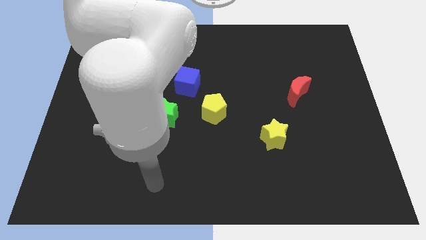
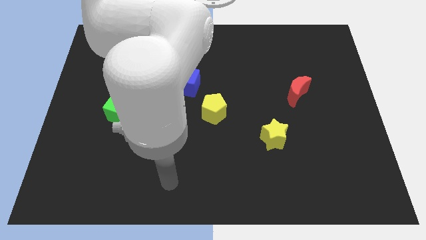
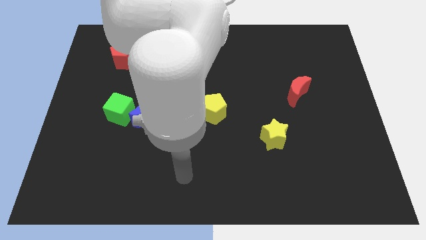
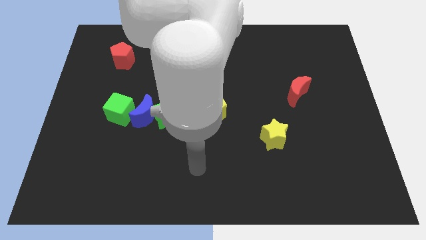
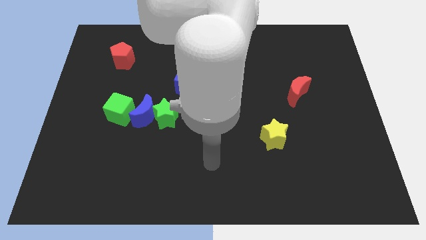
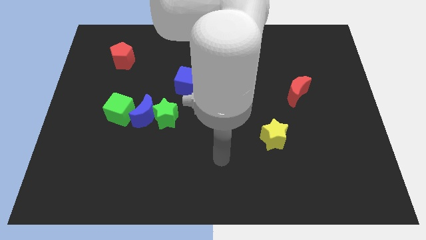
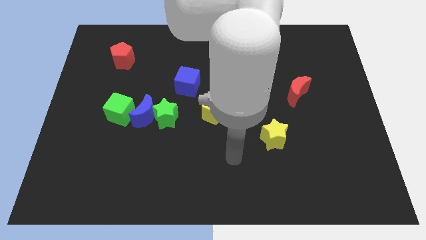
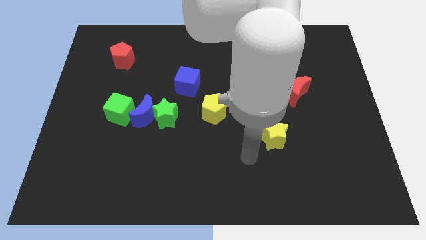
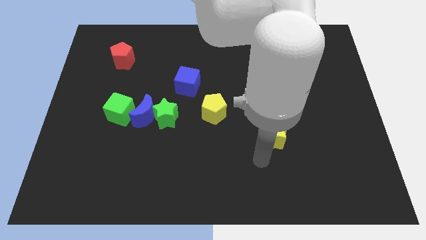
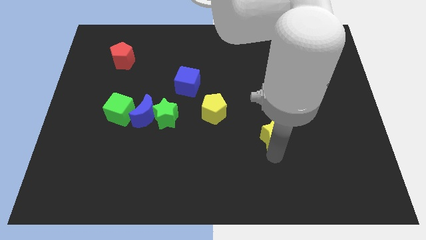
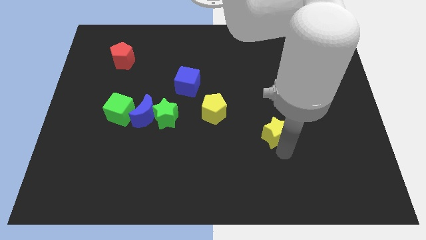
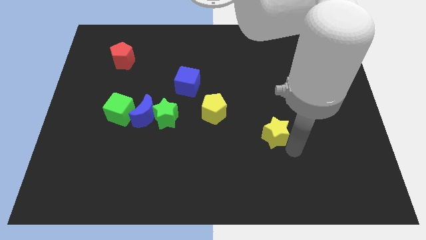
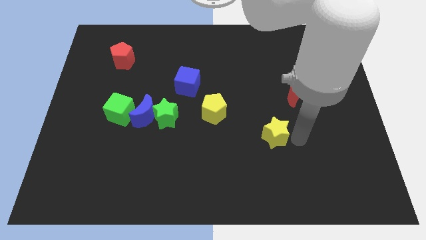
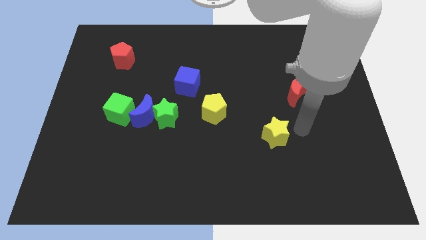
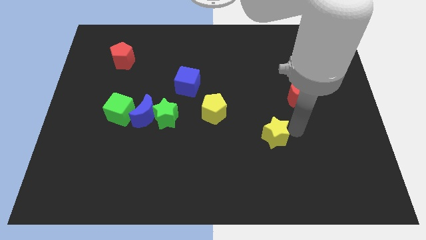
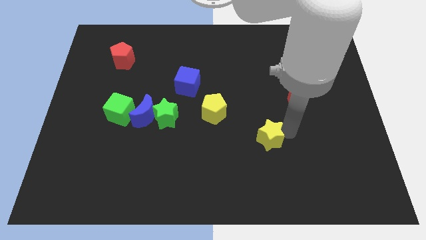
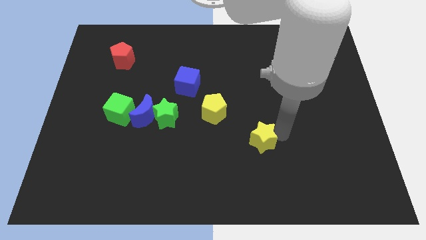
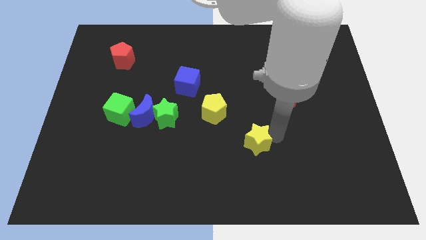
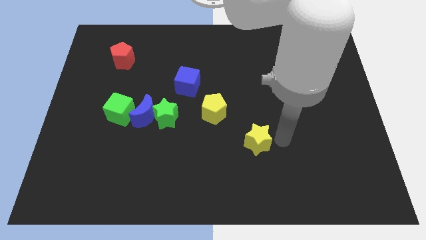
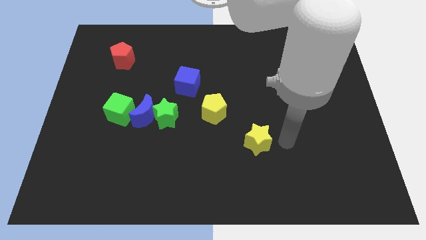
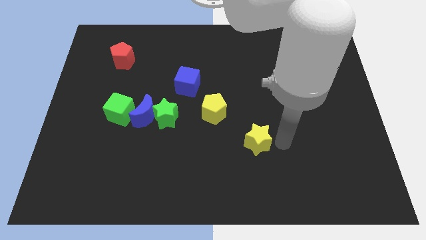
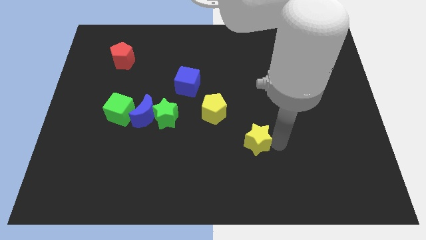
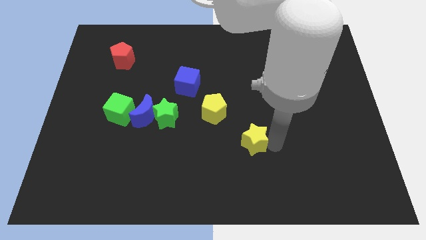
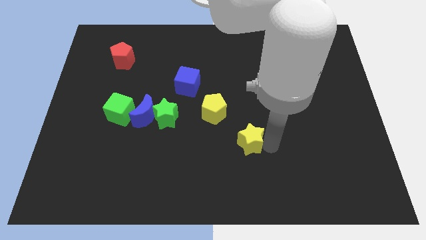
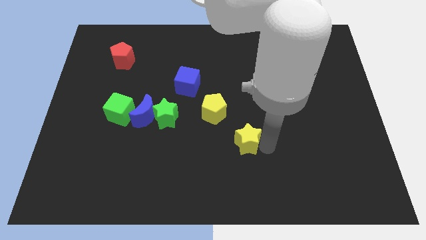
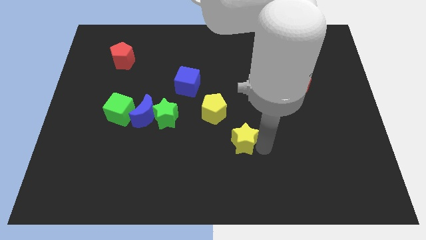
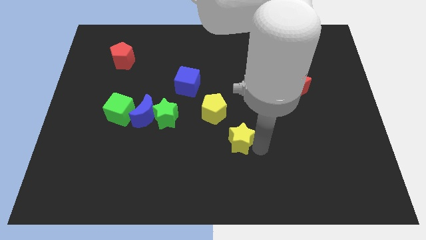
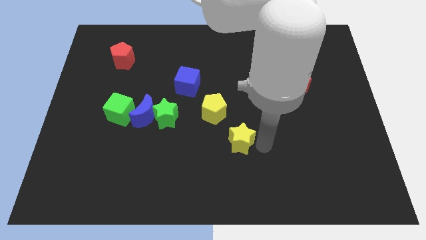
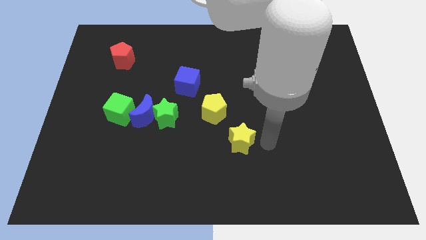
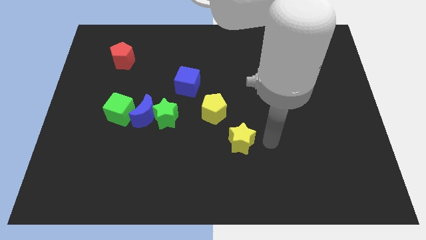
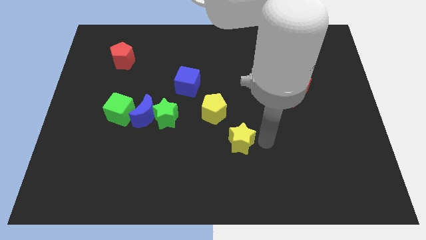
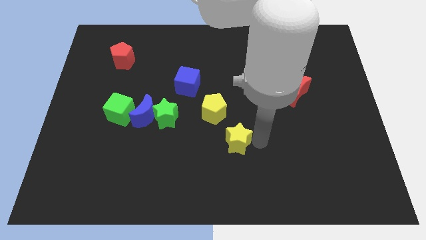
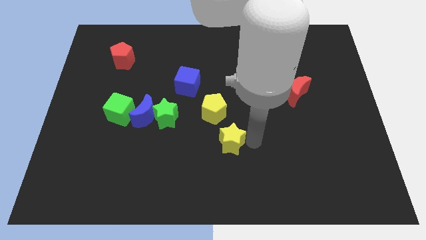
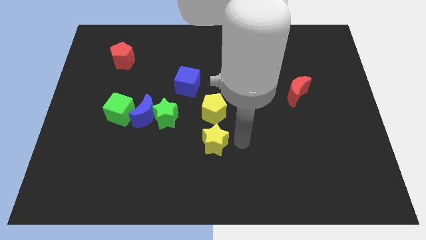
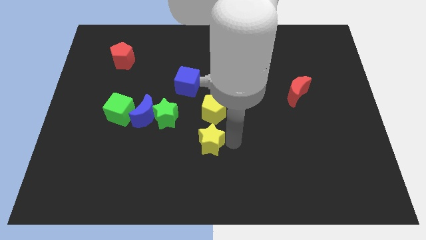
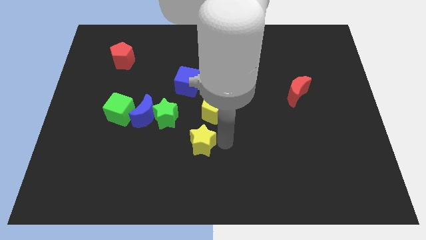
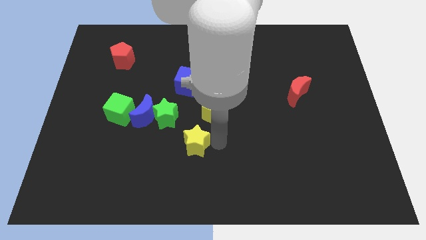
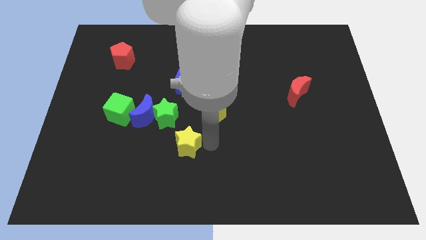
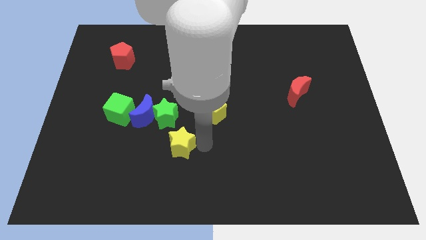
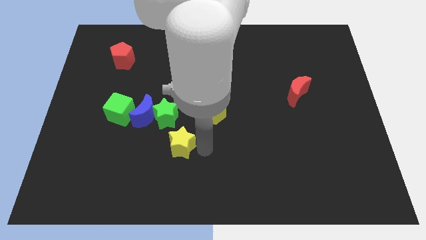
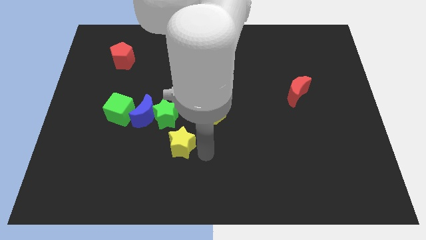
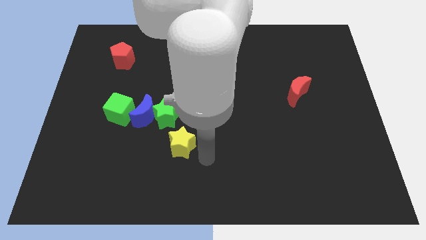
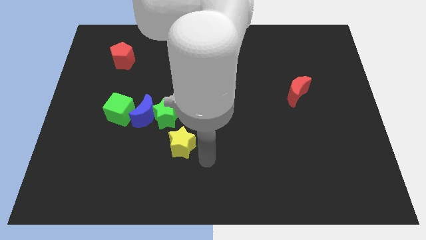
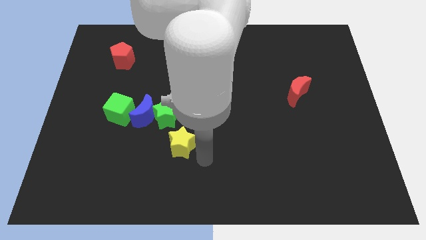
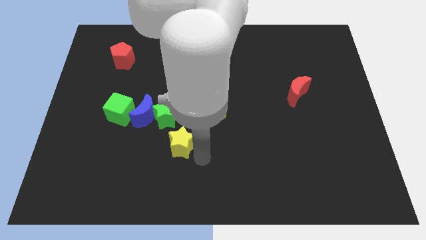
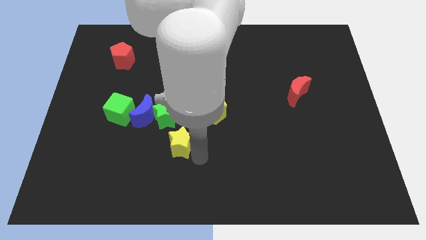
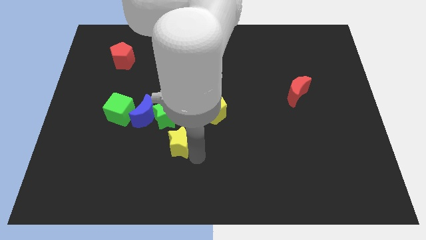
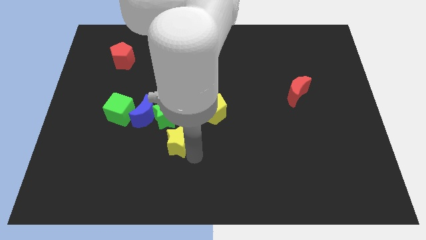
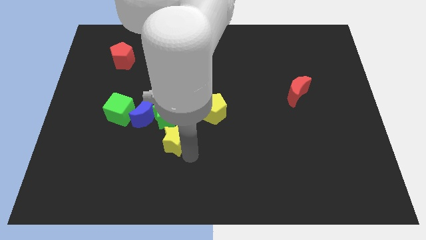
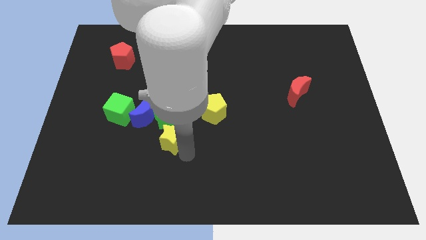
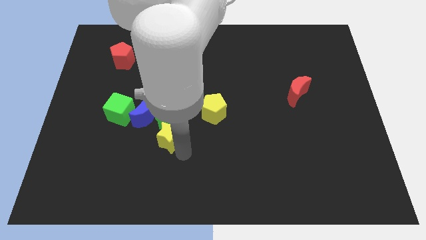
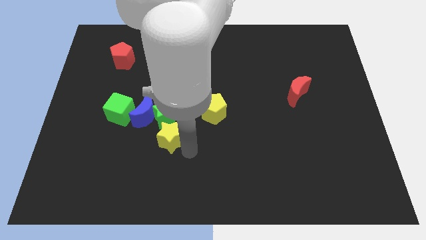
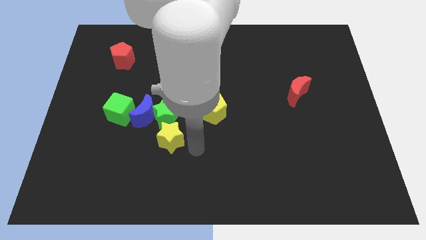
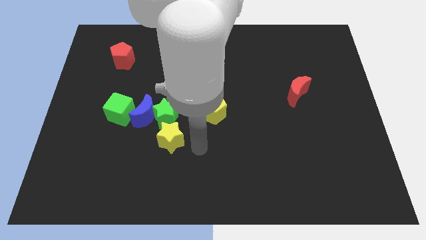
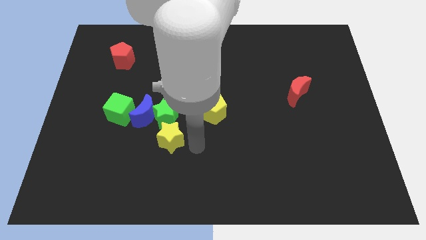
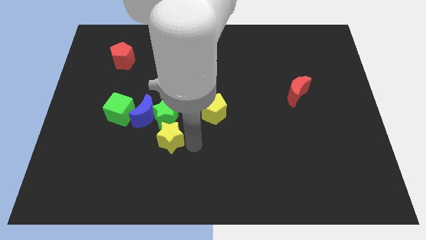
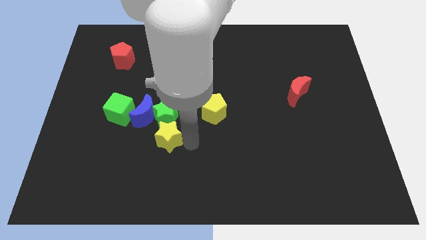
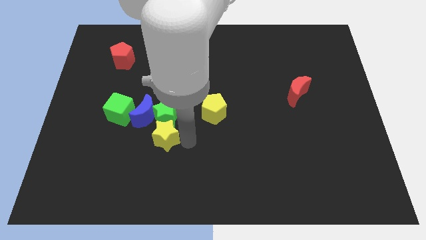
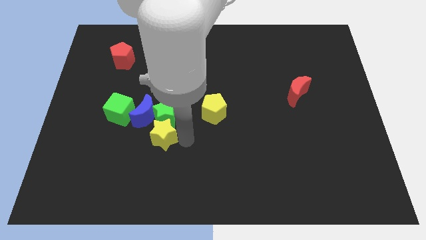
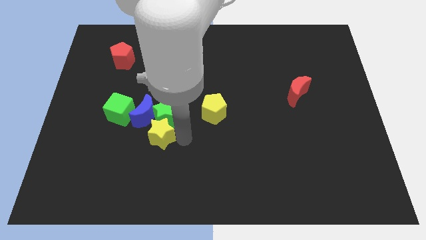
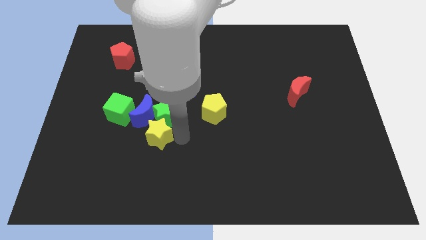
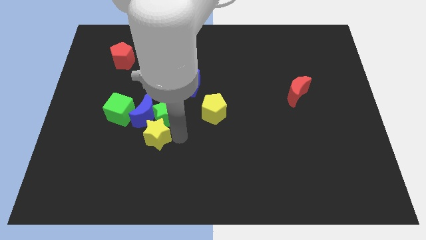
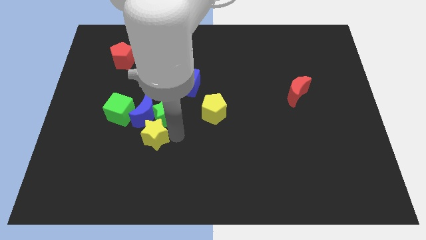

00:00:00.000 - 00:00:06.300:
put the yellow star towards the blue moon

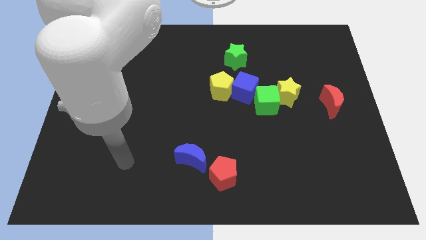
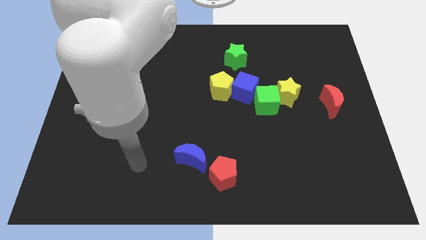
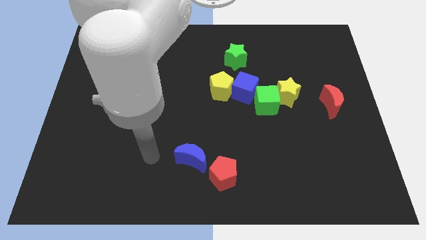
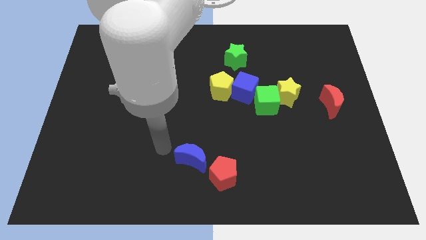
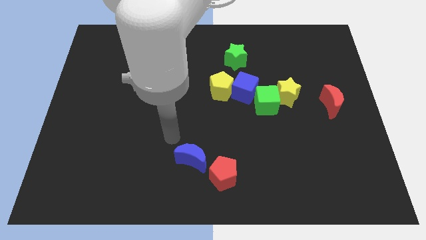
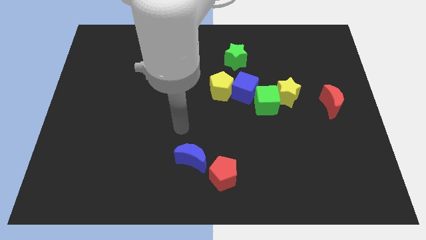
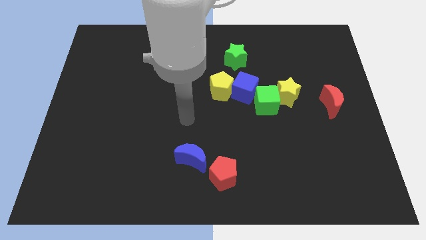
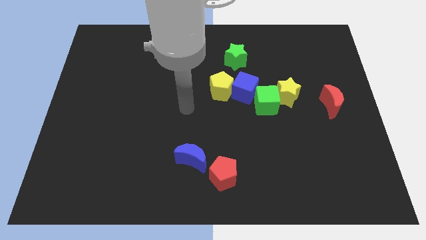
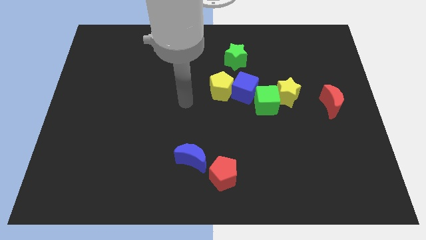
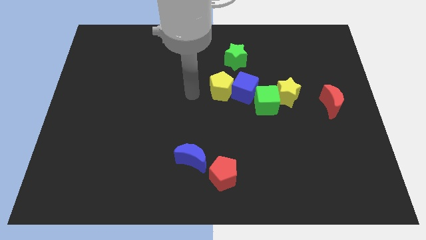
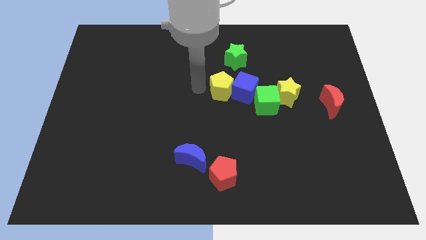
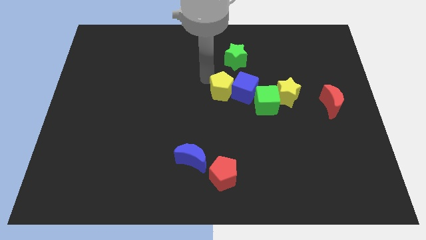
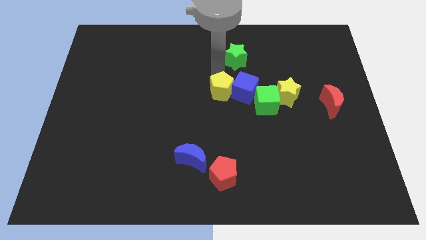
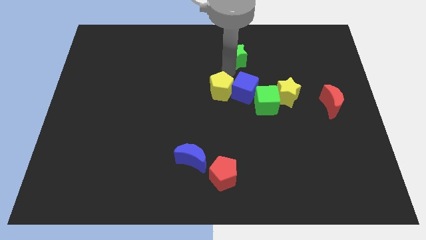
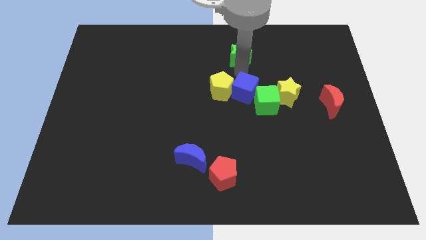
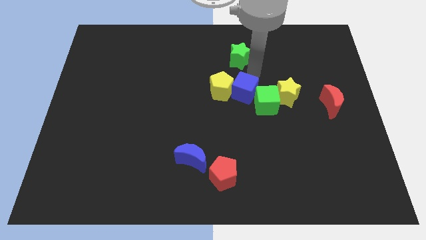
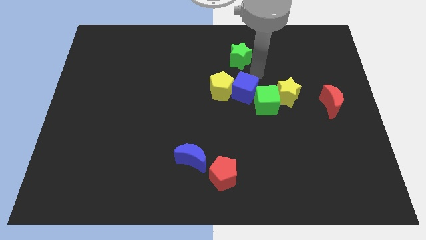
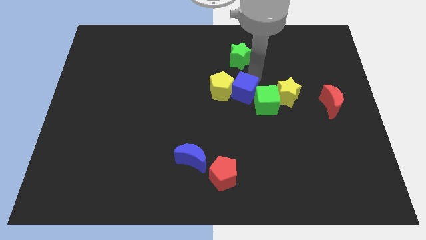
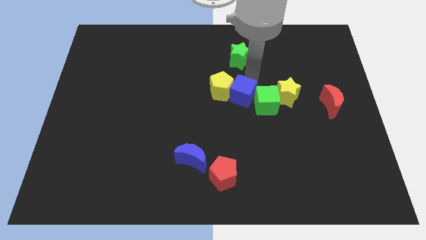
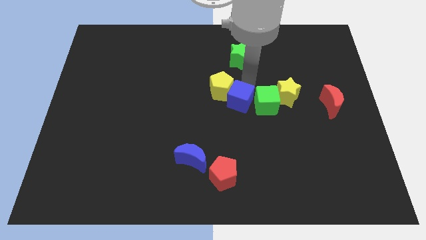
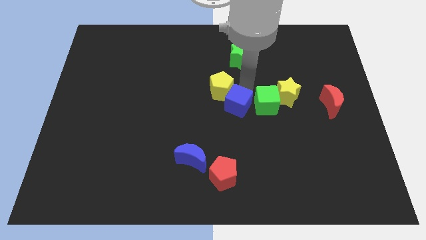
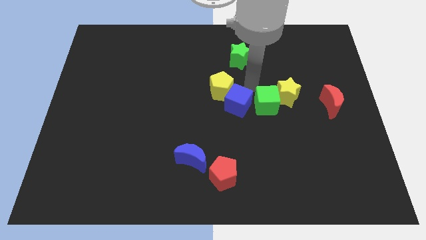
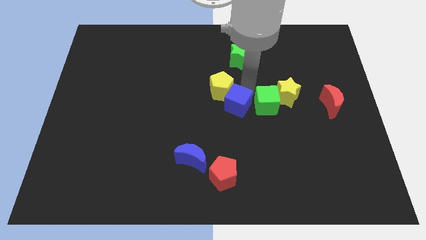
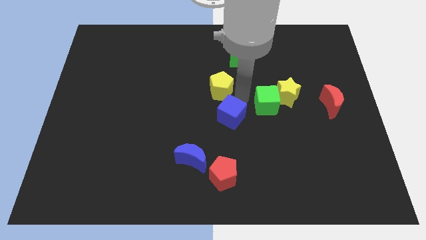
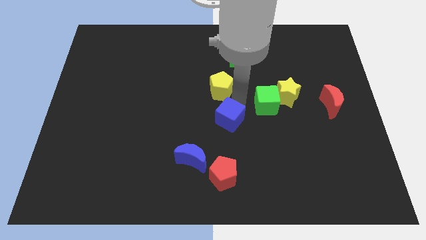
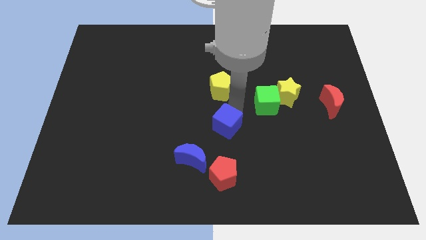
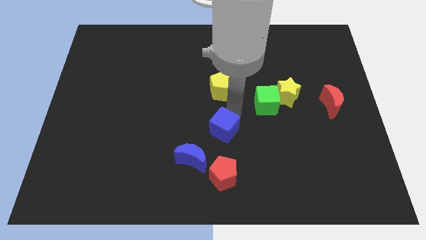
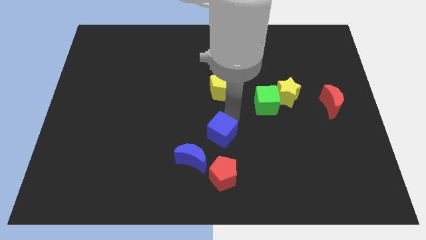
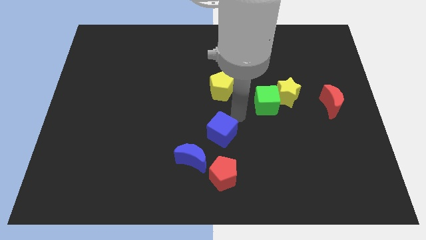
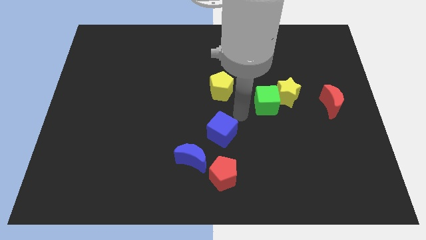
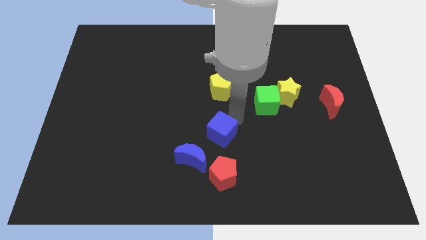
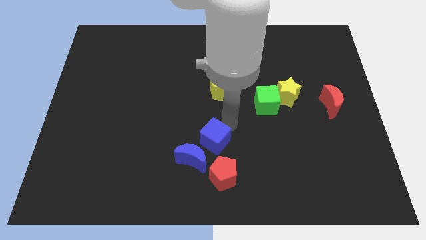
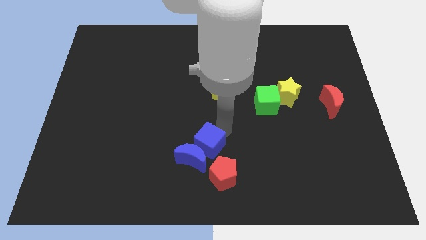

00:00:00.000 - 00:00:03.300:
push the blue cube close to the blue moon
